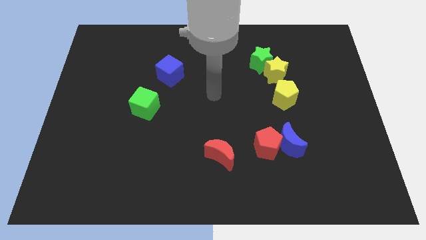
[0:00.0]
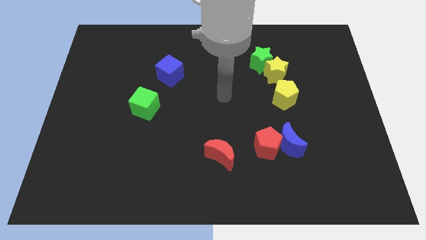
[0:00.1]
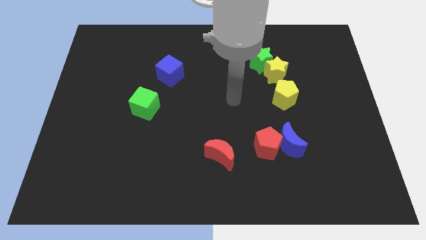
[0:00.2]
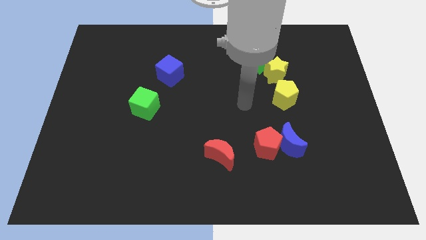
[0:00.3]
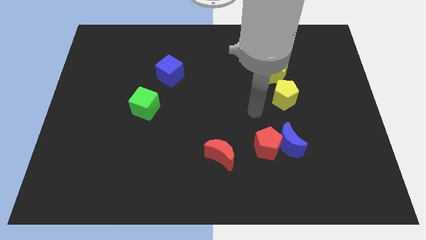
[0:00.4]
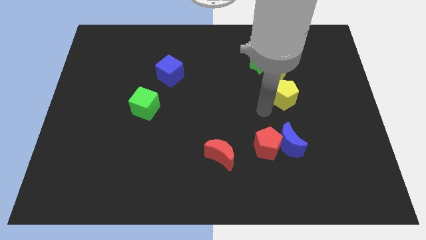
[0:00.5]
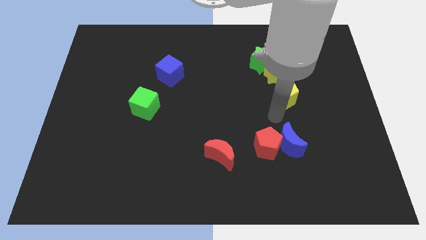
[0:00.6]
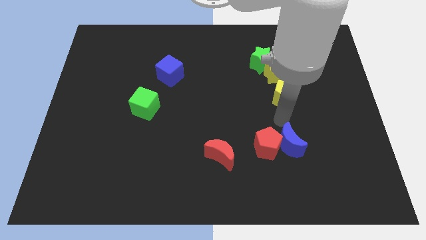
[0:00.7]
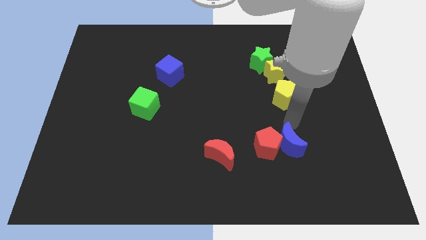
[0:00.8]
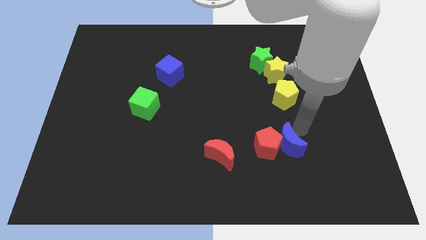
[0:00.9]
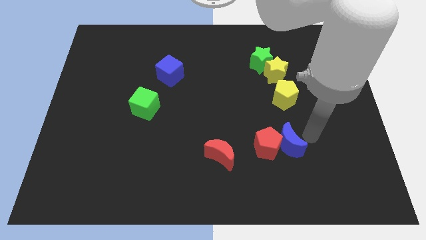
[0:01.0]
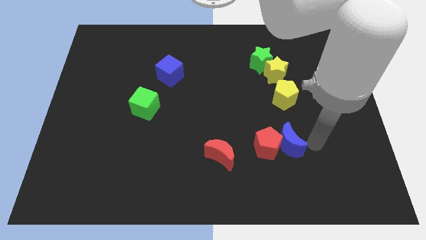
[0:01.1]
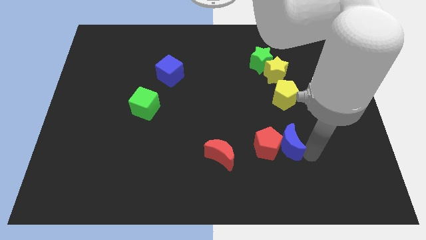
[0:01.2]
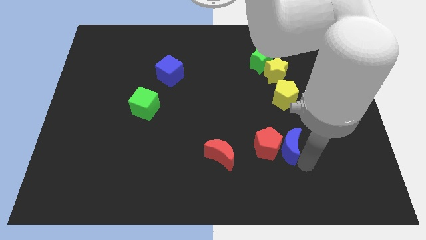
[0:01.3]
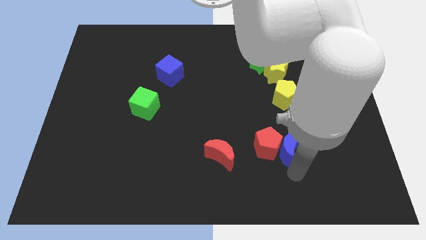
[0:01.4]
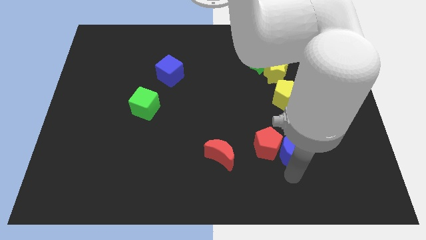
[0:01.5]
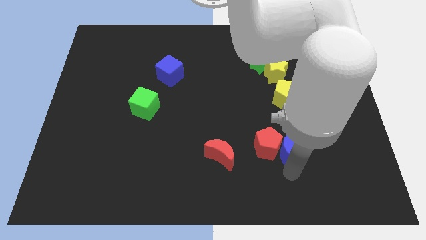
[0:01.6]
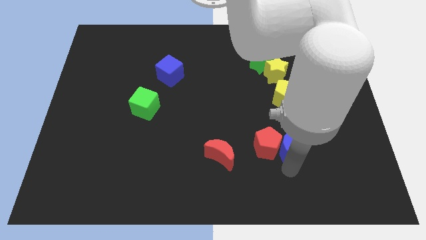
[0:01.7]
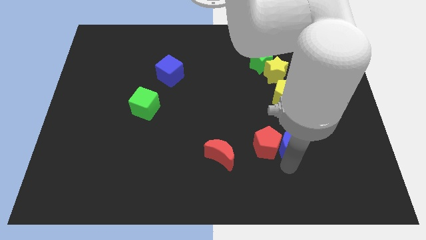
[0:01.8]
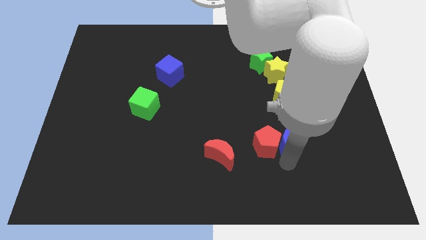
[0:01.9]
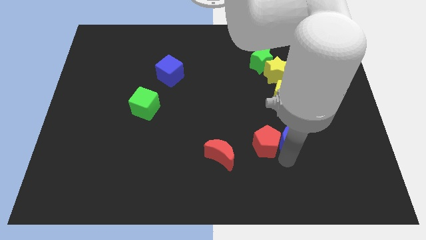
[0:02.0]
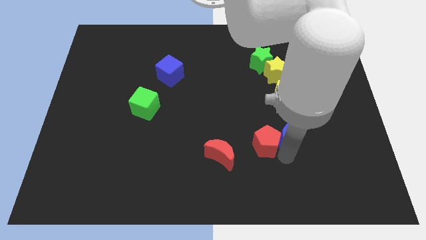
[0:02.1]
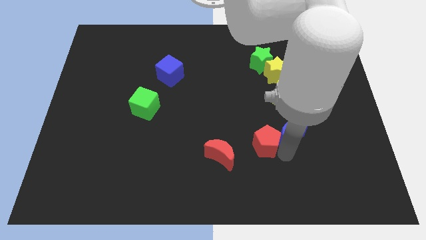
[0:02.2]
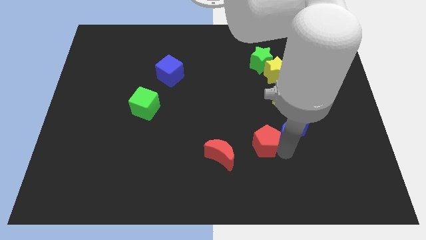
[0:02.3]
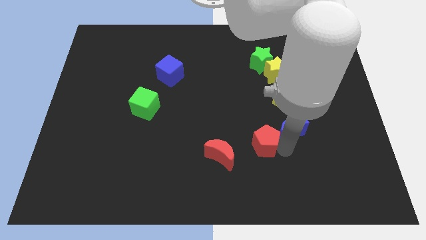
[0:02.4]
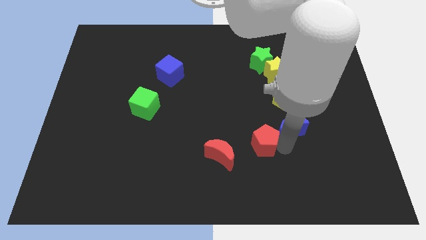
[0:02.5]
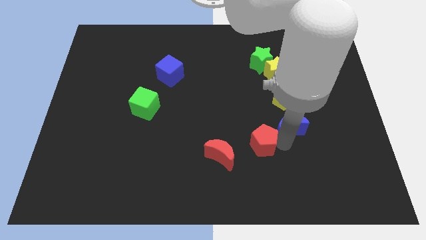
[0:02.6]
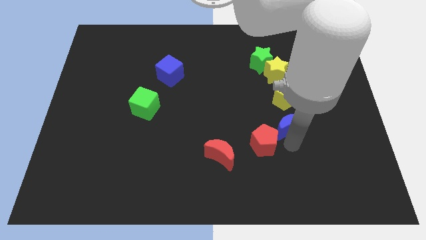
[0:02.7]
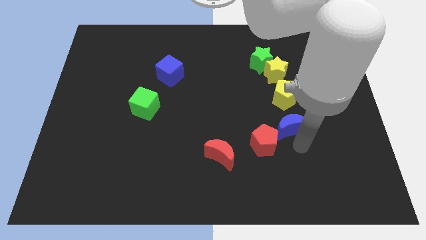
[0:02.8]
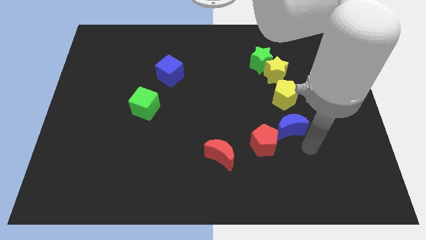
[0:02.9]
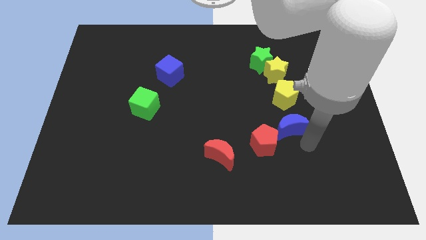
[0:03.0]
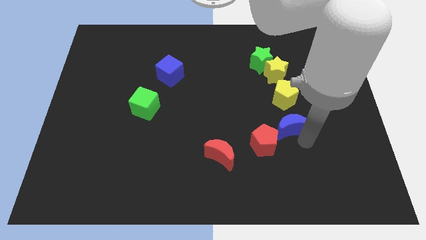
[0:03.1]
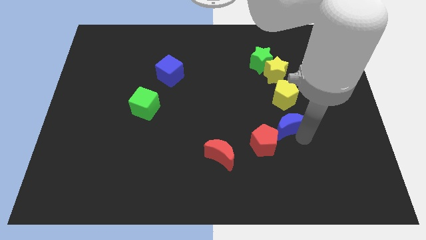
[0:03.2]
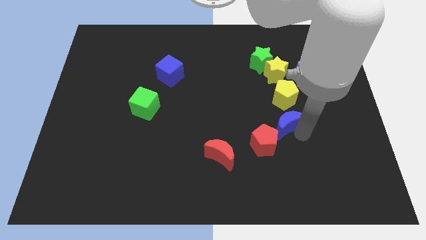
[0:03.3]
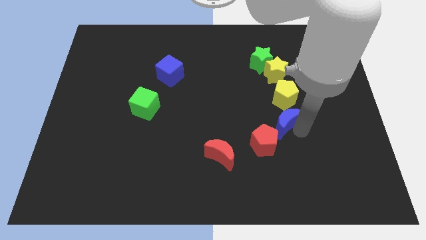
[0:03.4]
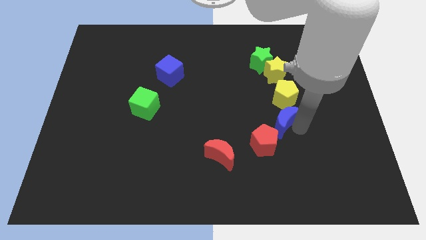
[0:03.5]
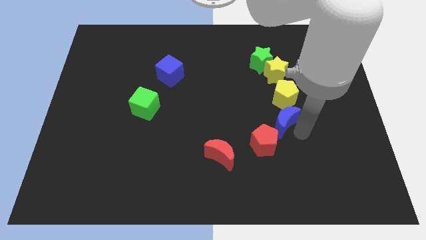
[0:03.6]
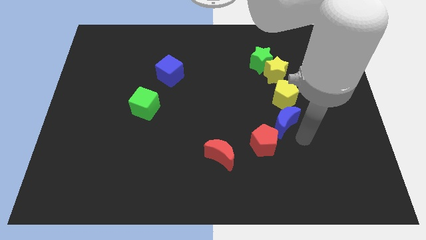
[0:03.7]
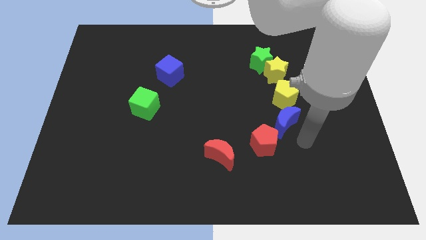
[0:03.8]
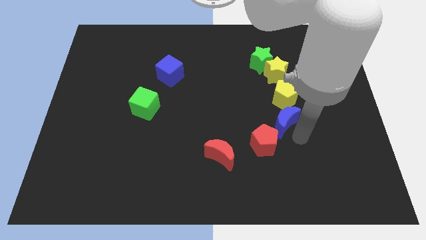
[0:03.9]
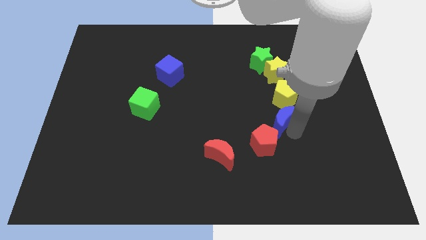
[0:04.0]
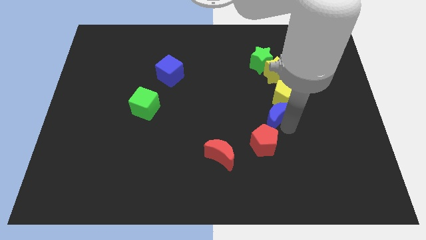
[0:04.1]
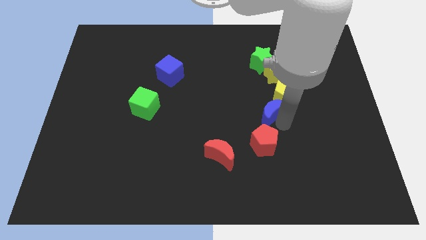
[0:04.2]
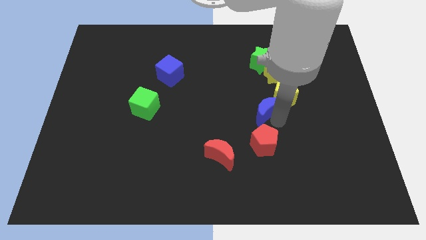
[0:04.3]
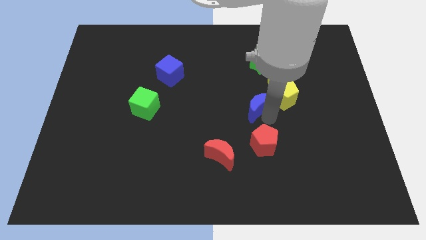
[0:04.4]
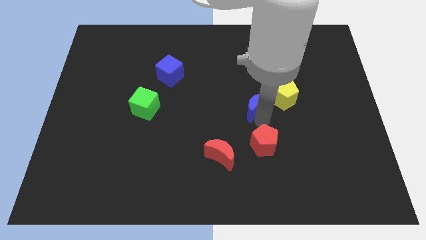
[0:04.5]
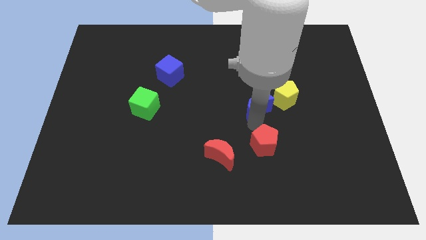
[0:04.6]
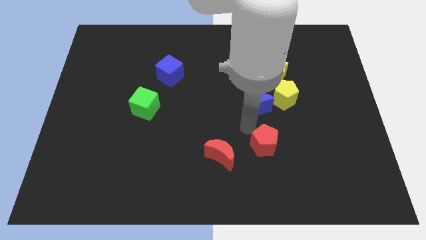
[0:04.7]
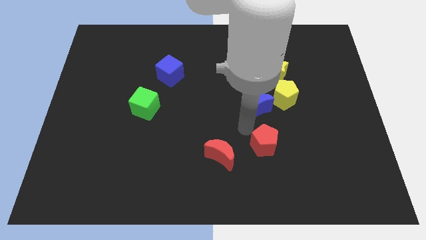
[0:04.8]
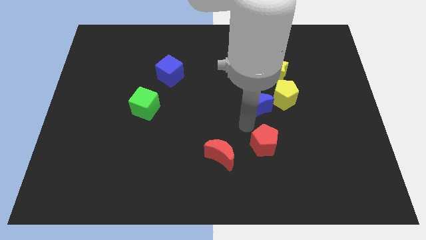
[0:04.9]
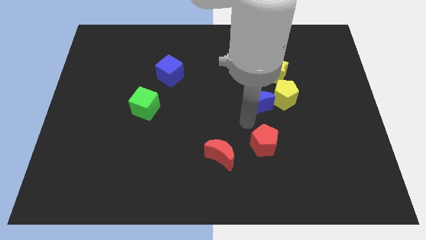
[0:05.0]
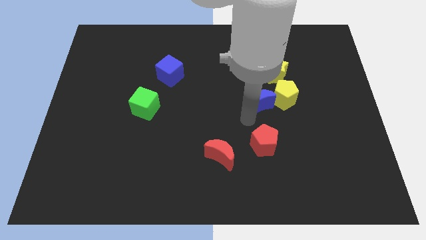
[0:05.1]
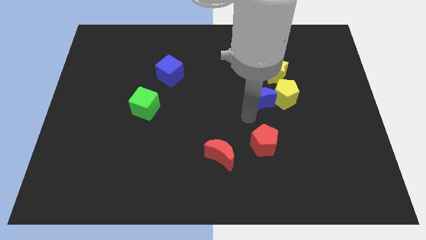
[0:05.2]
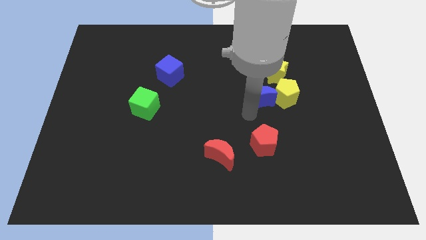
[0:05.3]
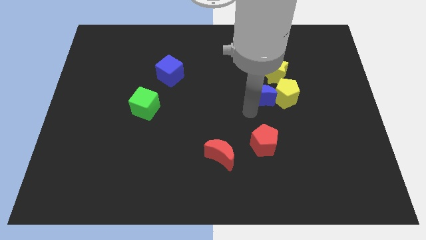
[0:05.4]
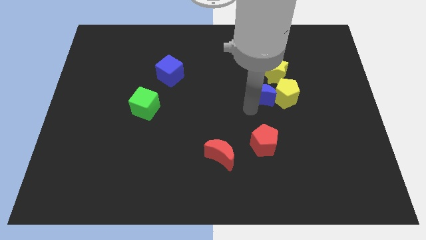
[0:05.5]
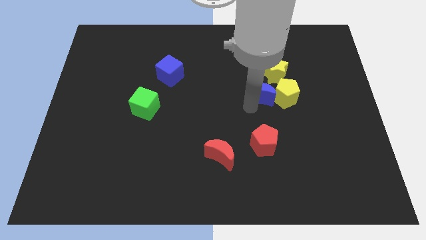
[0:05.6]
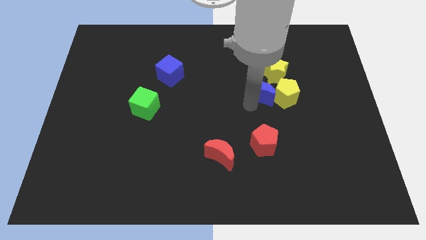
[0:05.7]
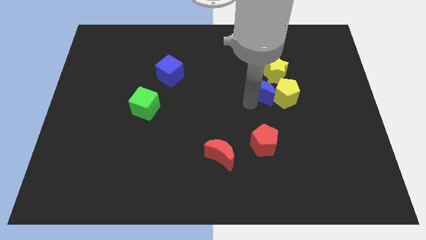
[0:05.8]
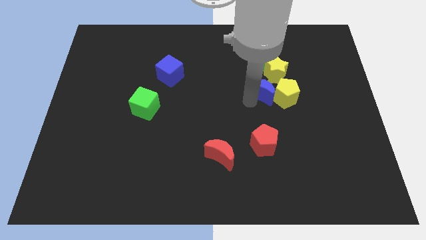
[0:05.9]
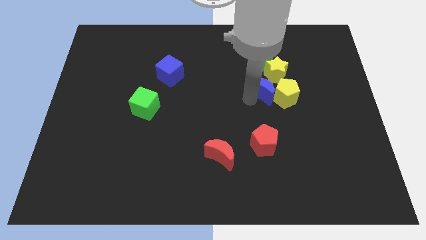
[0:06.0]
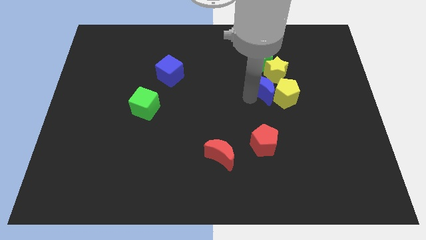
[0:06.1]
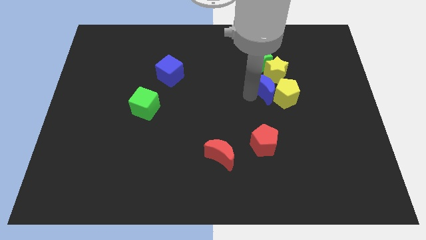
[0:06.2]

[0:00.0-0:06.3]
push the blue moon next to the yellow star

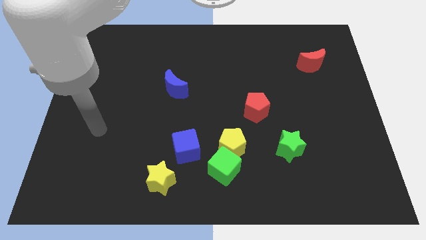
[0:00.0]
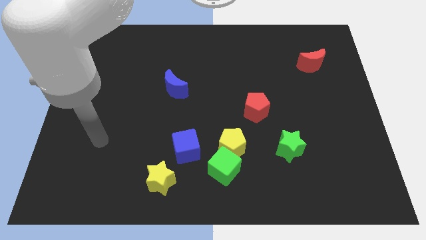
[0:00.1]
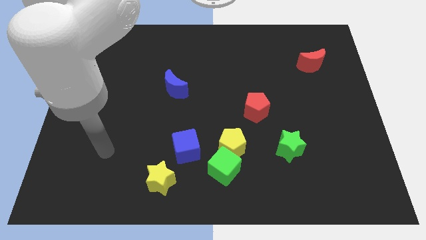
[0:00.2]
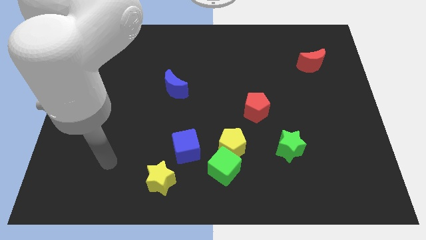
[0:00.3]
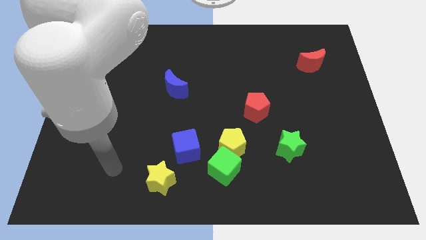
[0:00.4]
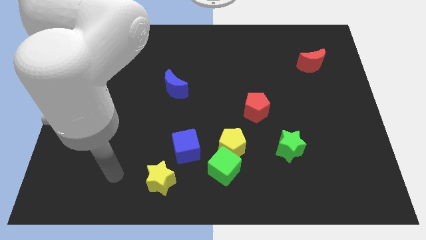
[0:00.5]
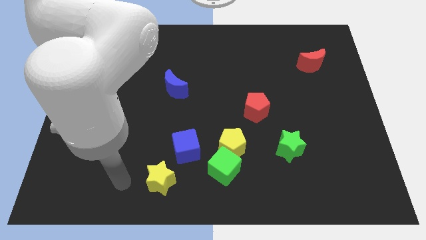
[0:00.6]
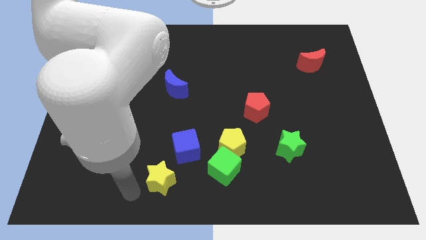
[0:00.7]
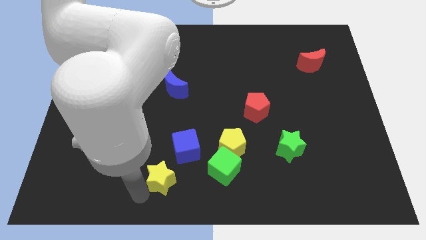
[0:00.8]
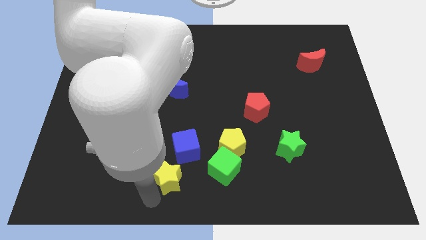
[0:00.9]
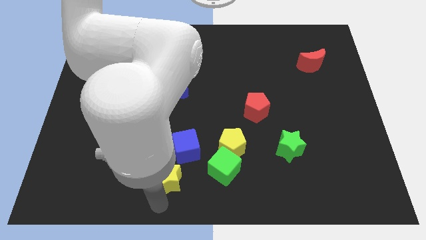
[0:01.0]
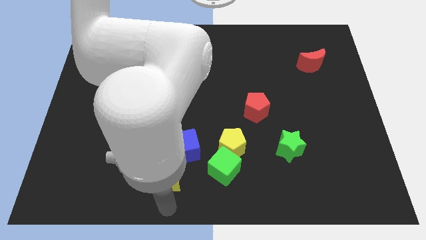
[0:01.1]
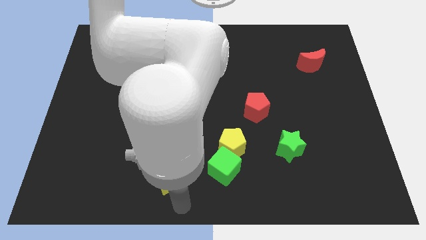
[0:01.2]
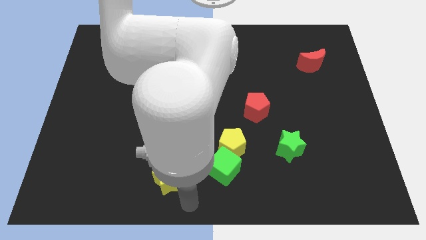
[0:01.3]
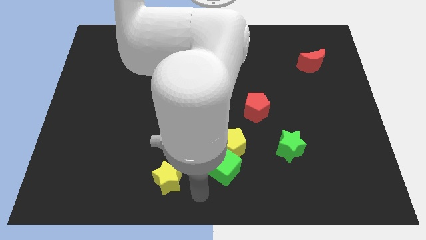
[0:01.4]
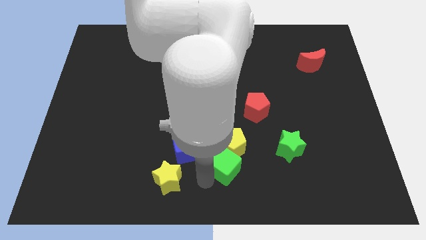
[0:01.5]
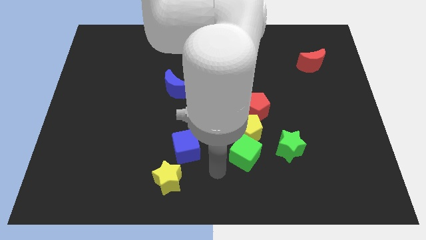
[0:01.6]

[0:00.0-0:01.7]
move the yellow pentagon next to the red pentagon
